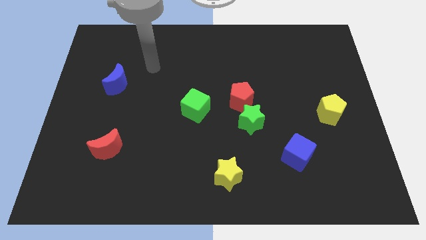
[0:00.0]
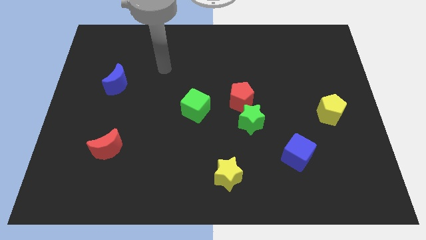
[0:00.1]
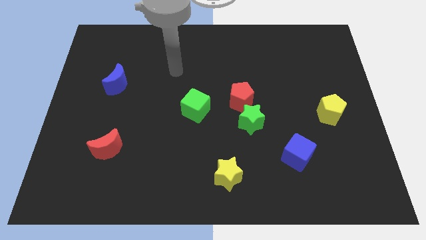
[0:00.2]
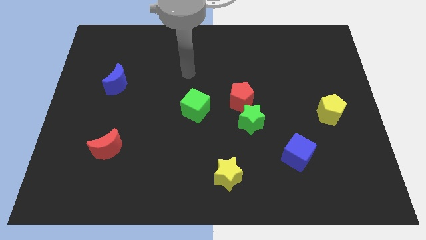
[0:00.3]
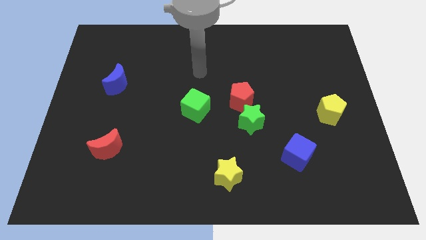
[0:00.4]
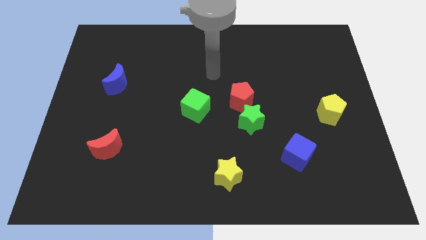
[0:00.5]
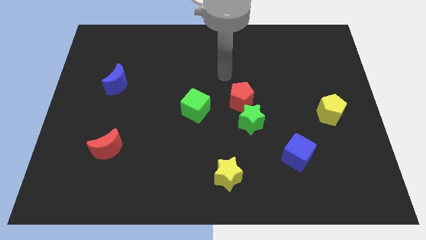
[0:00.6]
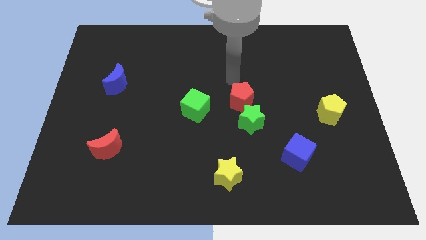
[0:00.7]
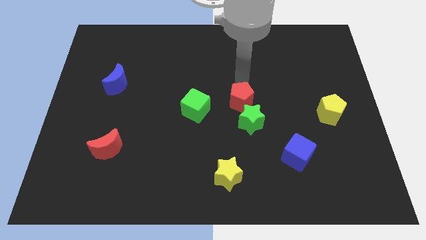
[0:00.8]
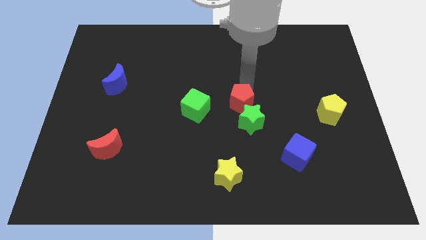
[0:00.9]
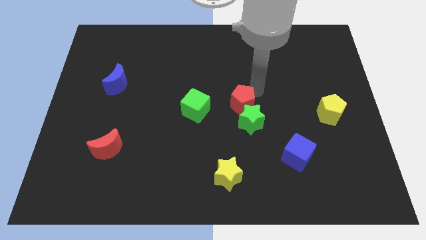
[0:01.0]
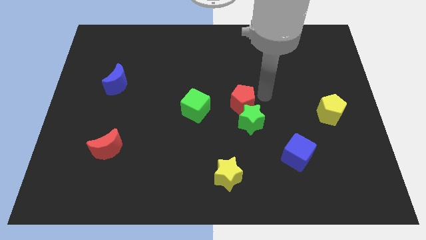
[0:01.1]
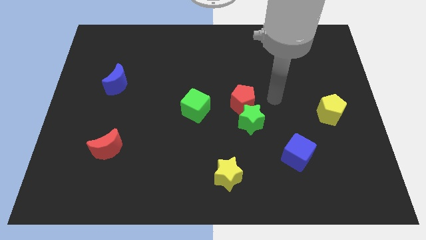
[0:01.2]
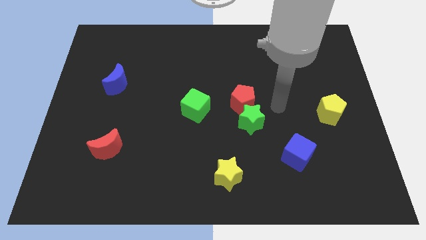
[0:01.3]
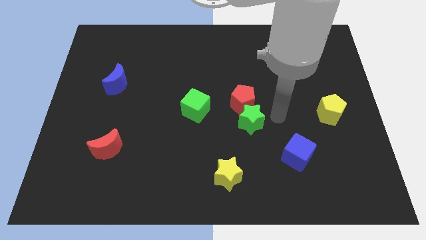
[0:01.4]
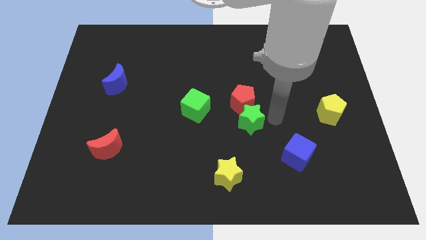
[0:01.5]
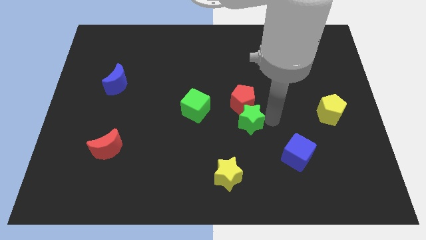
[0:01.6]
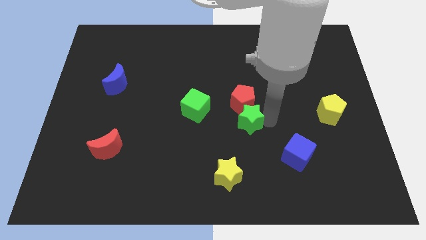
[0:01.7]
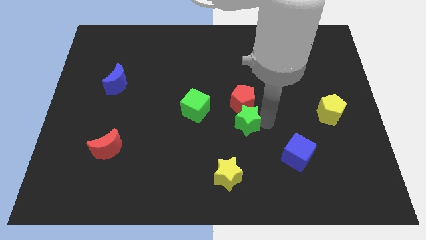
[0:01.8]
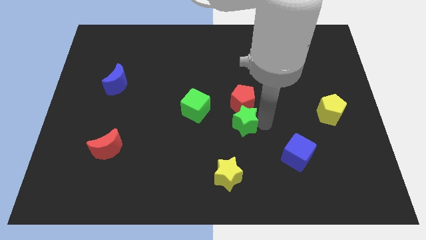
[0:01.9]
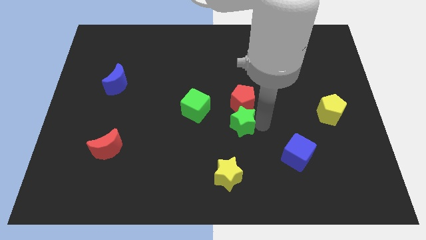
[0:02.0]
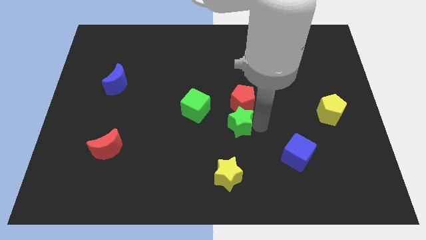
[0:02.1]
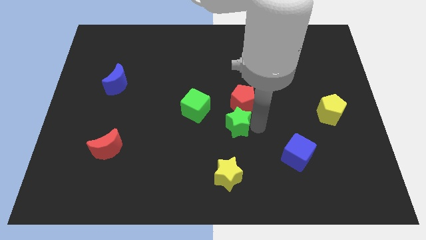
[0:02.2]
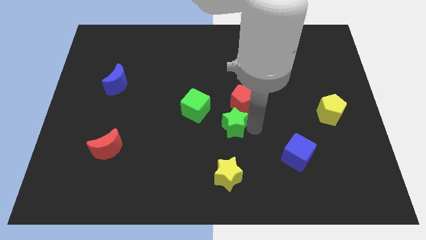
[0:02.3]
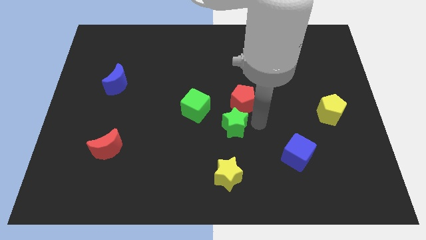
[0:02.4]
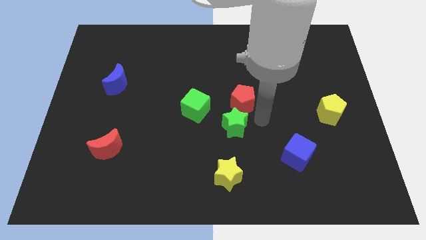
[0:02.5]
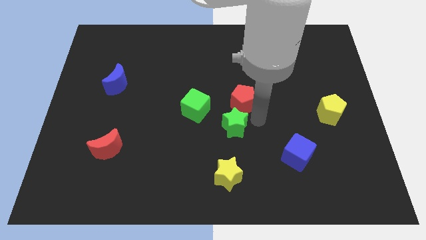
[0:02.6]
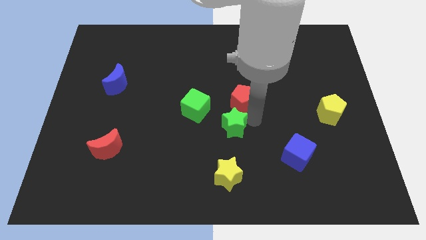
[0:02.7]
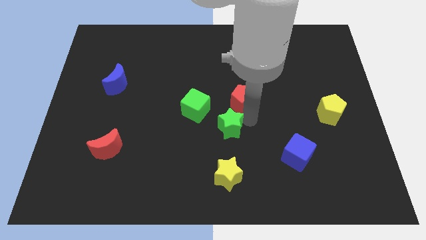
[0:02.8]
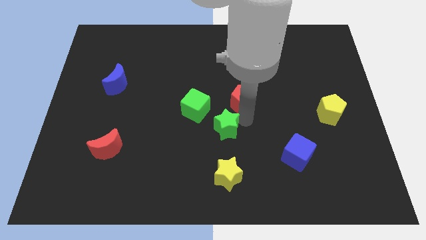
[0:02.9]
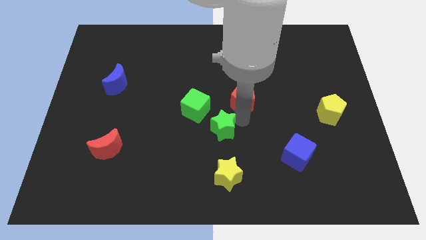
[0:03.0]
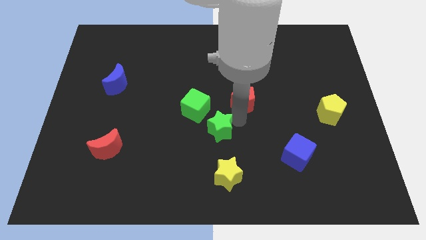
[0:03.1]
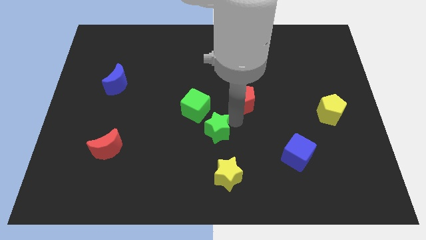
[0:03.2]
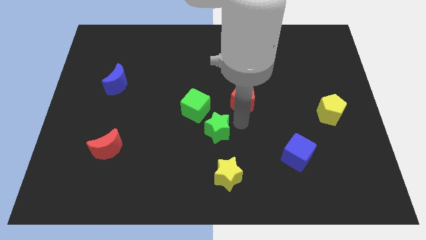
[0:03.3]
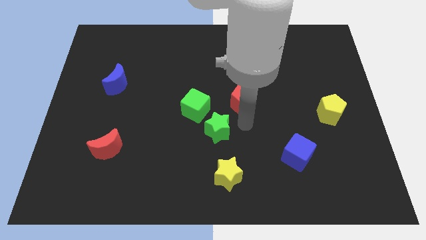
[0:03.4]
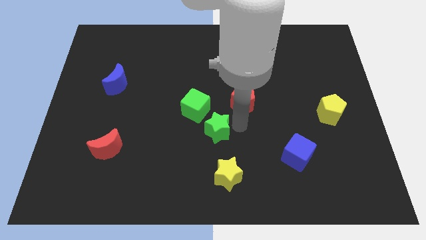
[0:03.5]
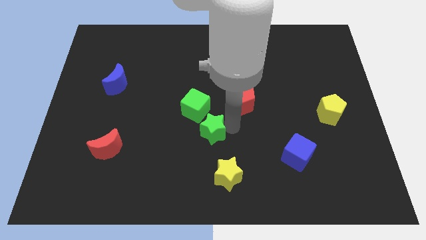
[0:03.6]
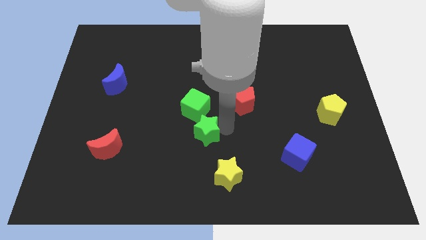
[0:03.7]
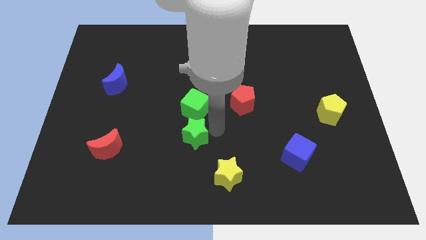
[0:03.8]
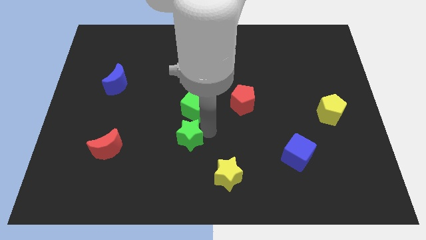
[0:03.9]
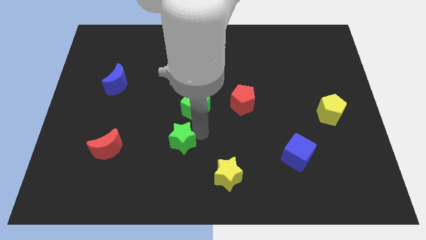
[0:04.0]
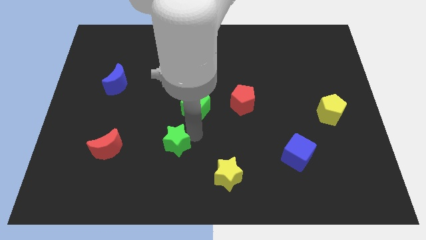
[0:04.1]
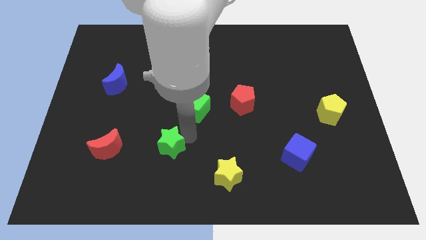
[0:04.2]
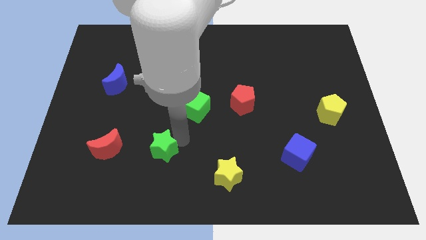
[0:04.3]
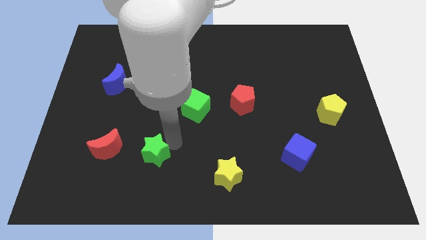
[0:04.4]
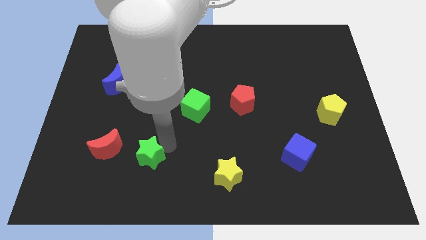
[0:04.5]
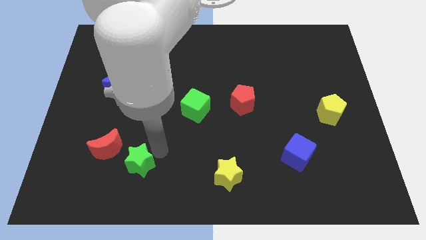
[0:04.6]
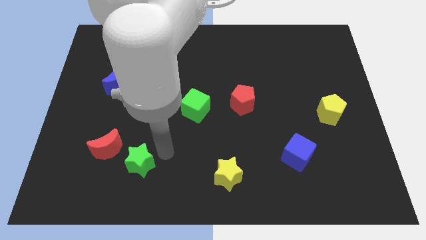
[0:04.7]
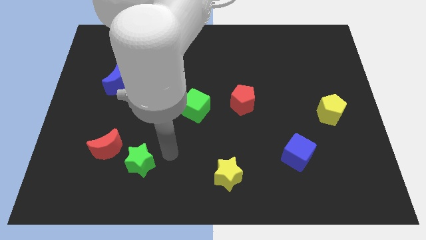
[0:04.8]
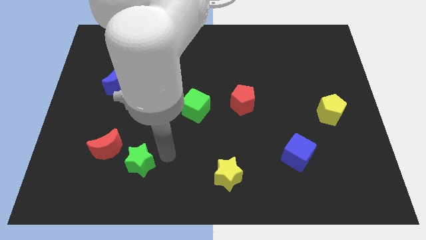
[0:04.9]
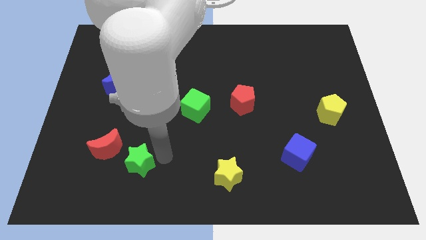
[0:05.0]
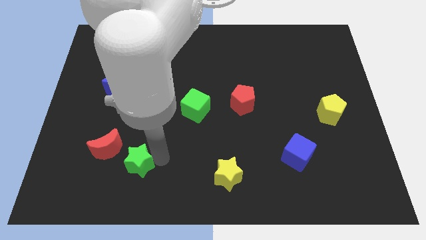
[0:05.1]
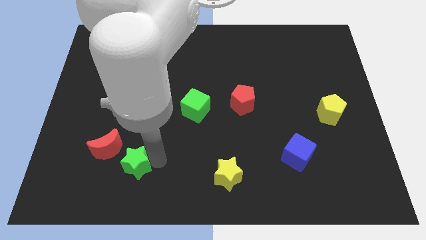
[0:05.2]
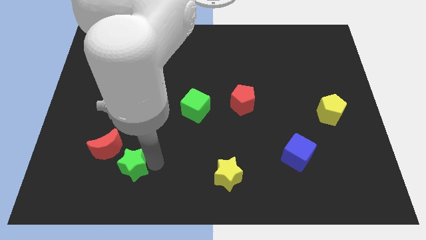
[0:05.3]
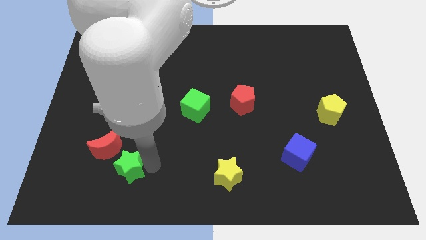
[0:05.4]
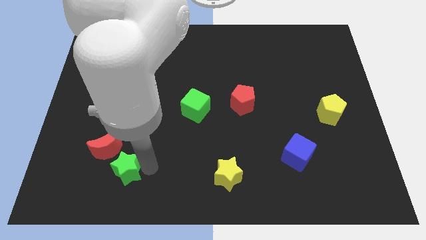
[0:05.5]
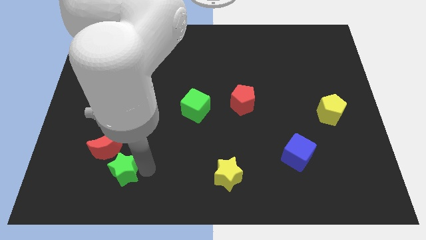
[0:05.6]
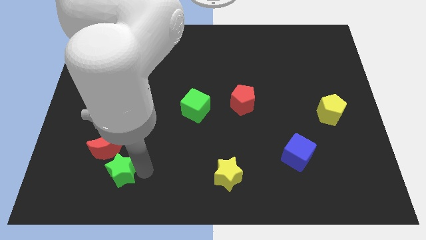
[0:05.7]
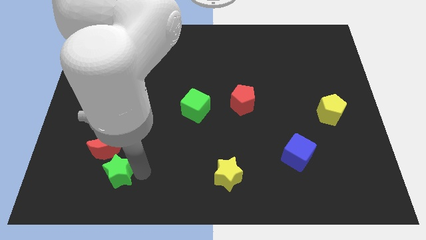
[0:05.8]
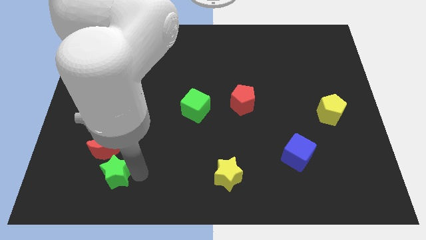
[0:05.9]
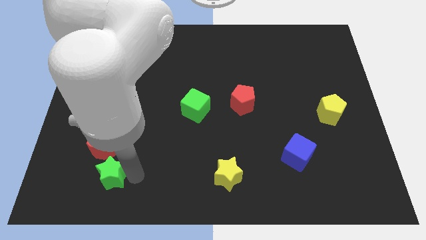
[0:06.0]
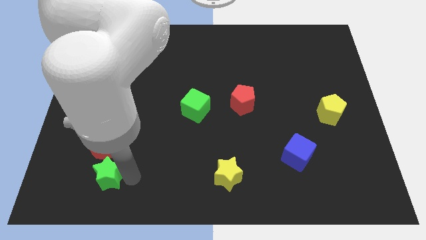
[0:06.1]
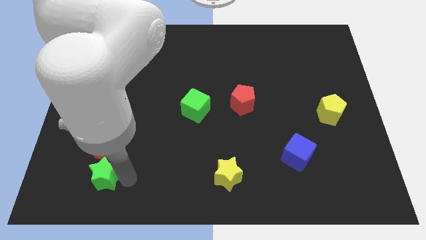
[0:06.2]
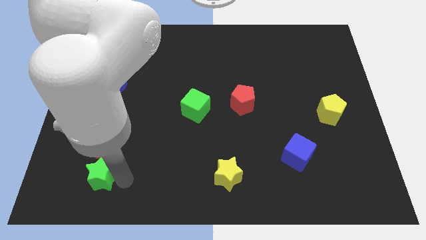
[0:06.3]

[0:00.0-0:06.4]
move the green star to the bottom left side of the red moon
